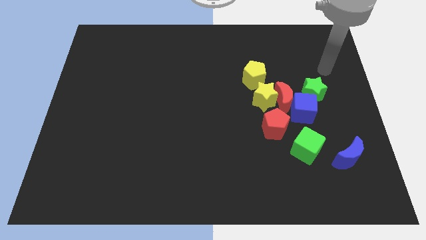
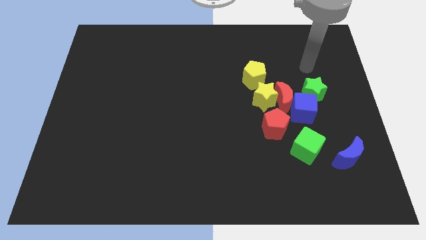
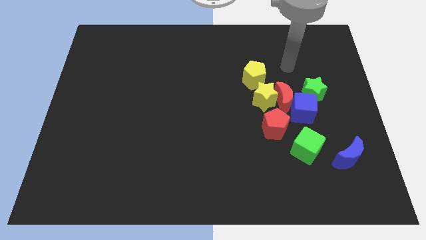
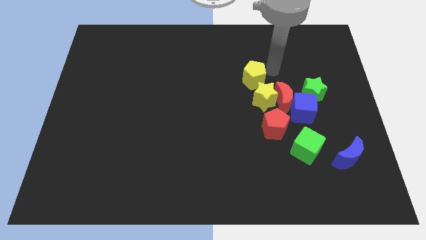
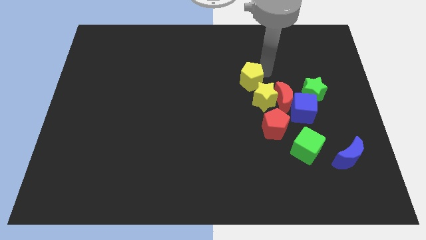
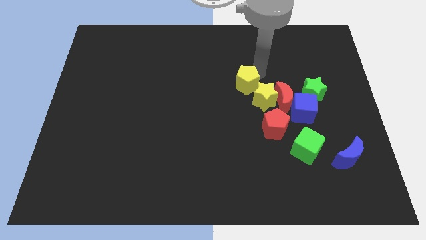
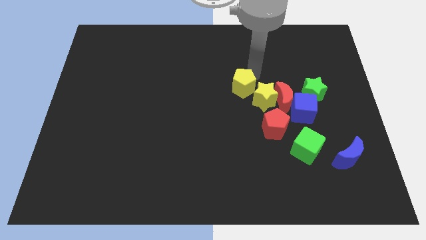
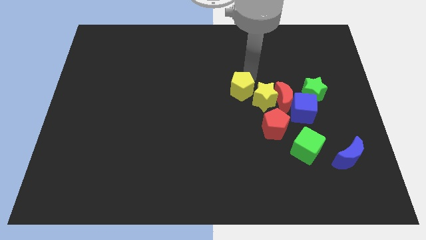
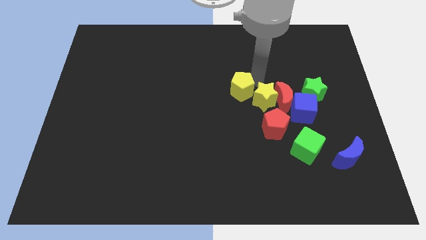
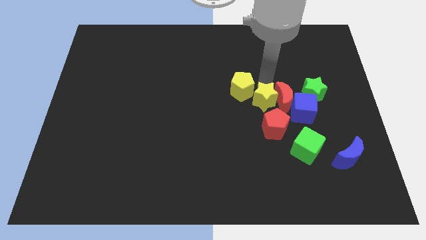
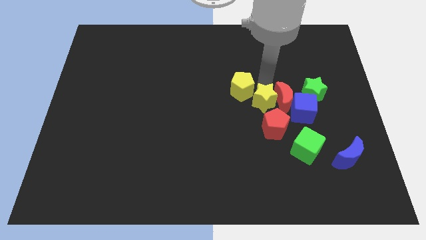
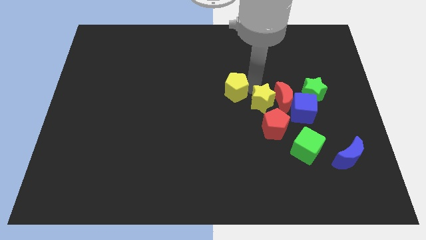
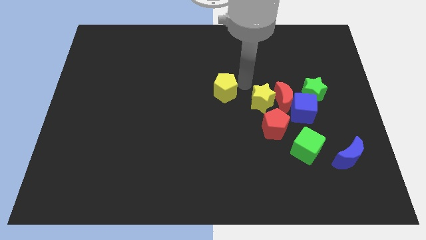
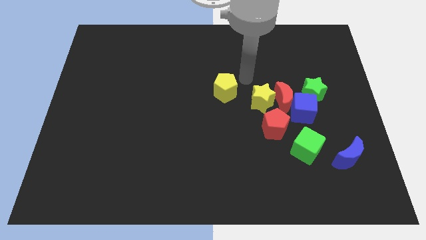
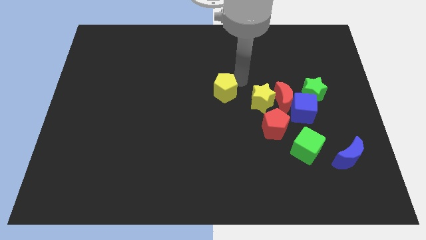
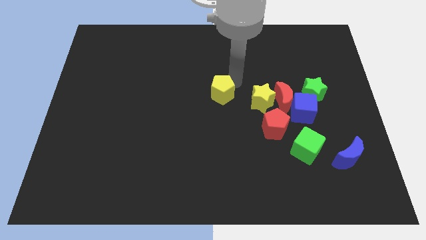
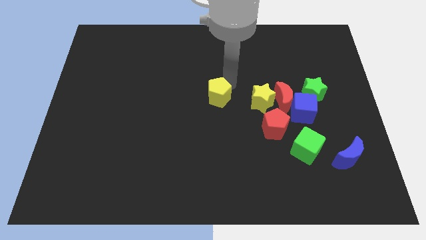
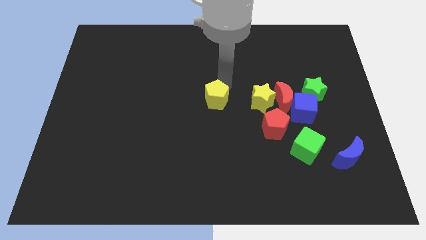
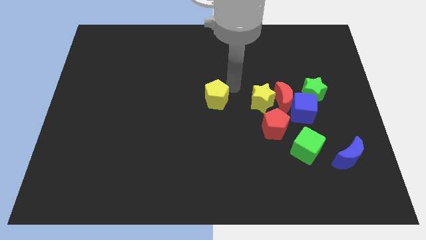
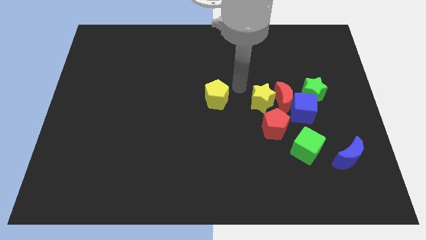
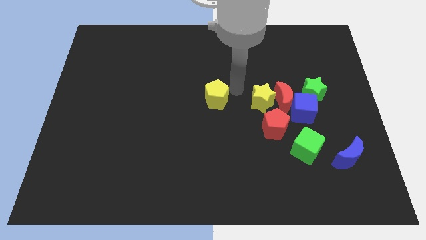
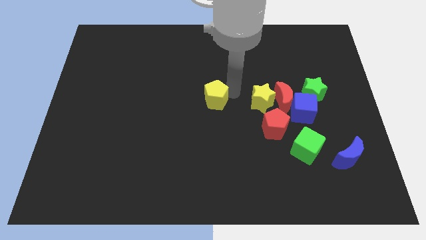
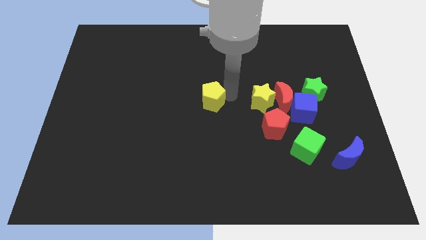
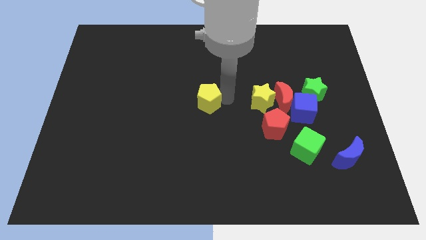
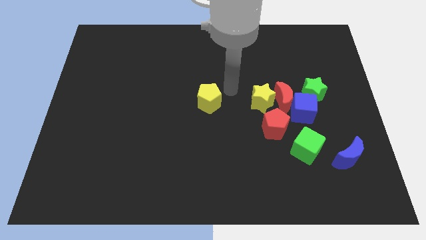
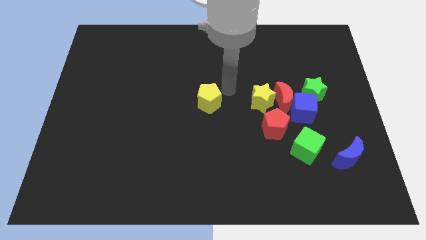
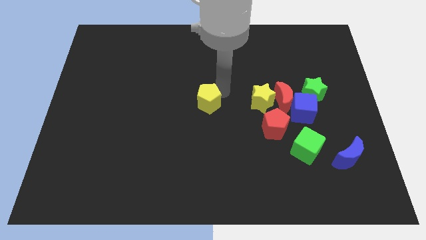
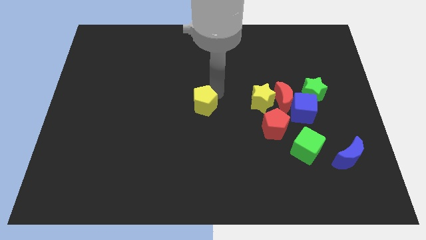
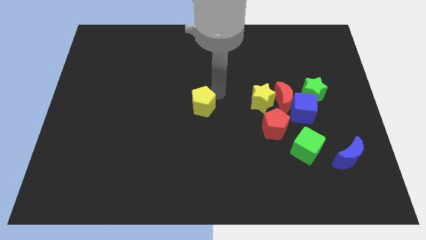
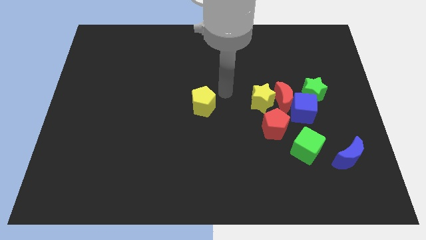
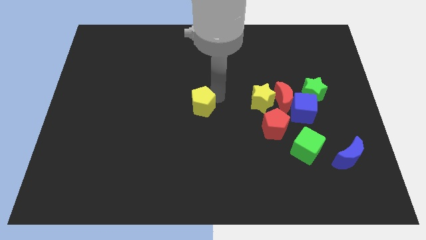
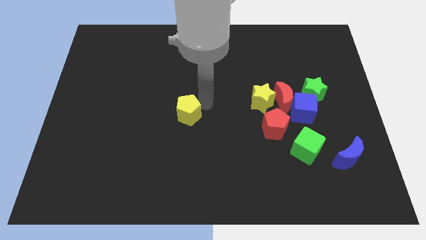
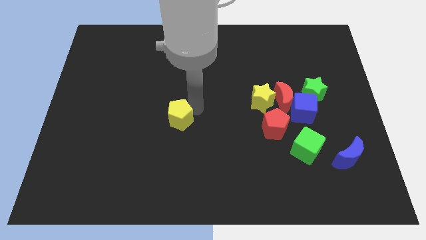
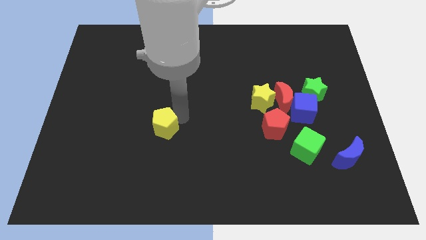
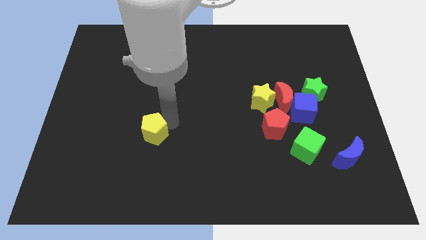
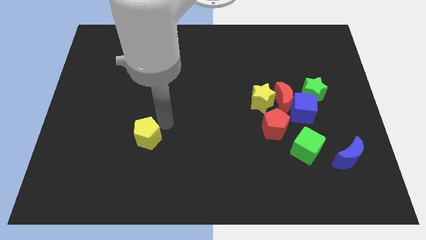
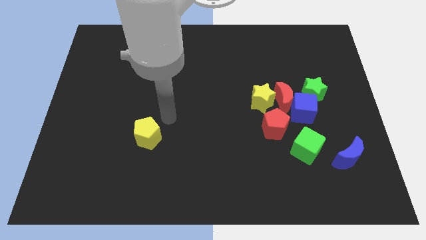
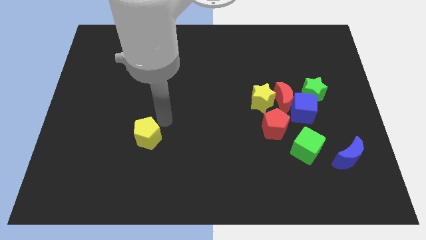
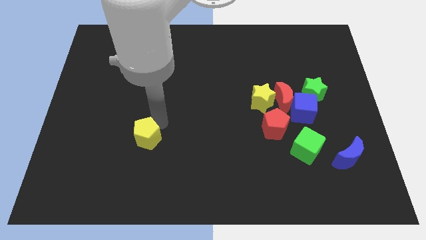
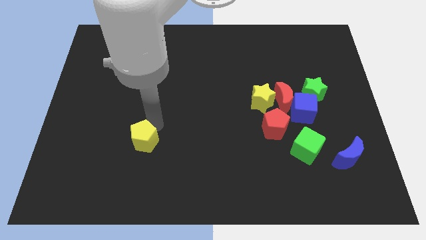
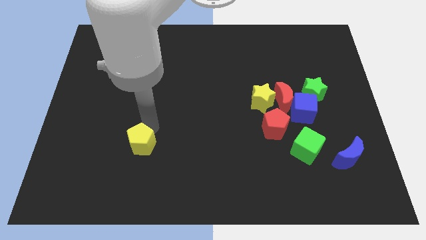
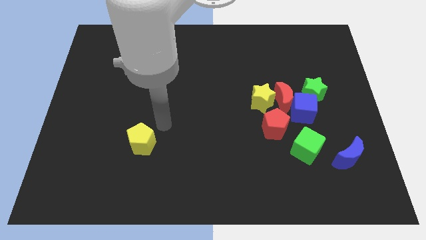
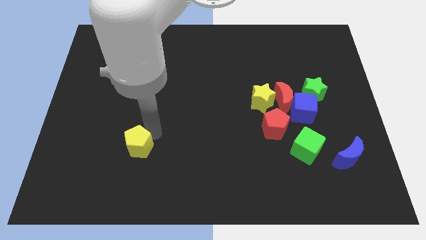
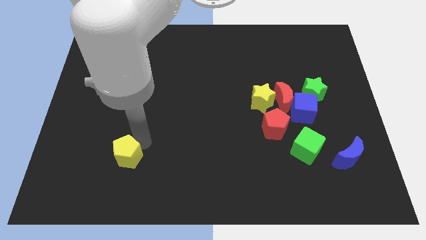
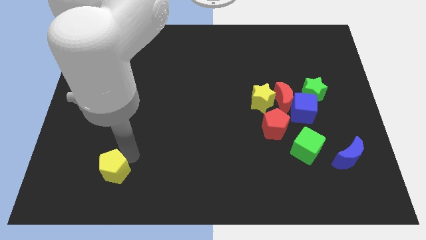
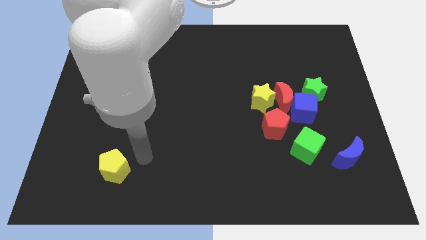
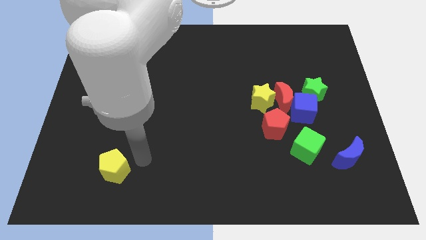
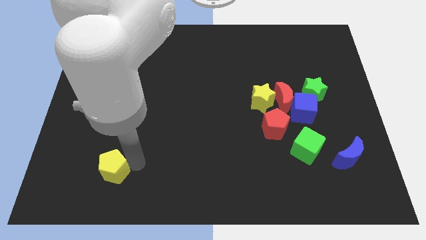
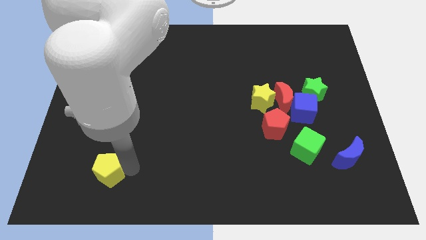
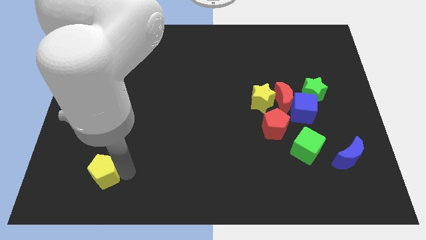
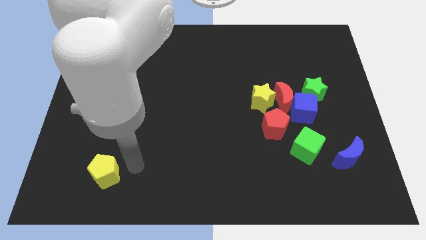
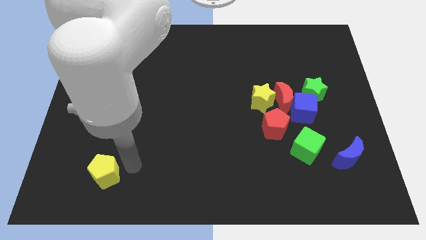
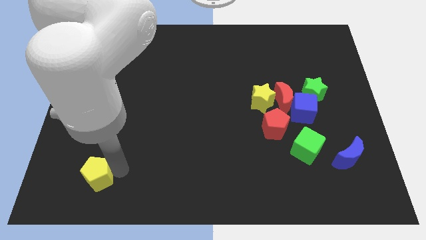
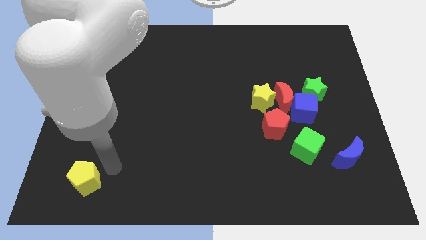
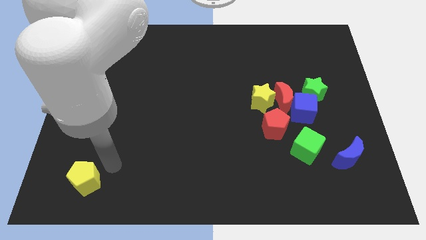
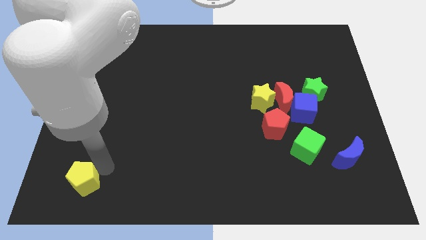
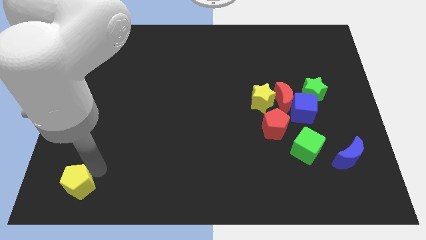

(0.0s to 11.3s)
push the yellow pentagon to the bottom left
